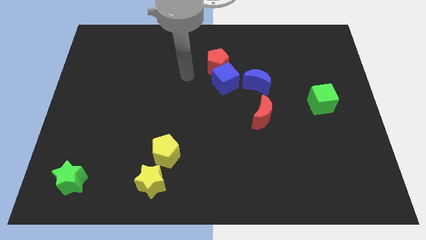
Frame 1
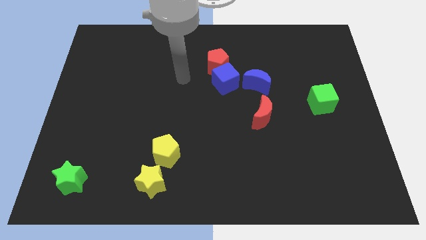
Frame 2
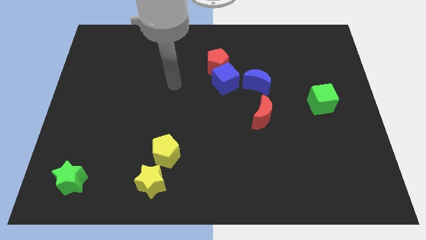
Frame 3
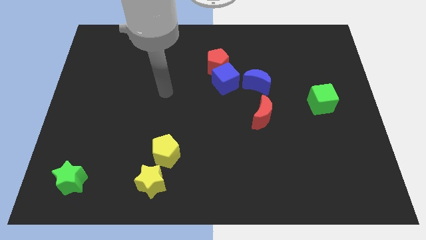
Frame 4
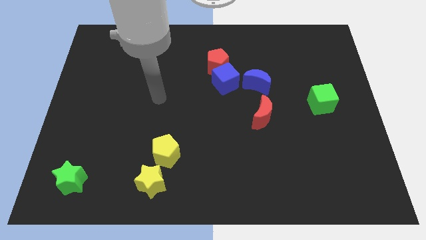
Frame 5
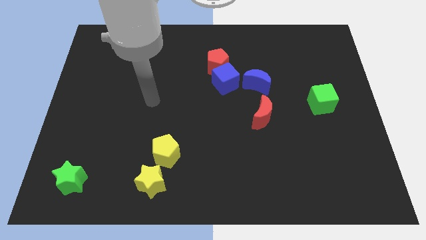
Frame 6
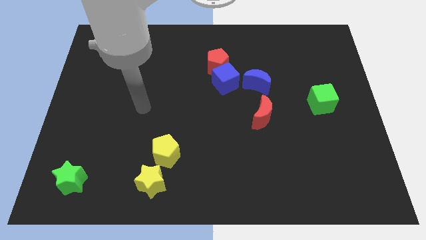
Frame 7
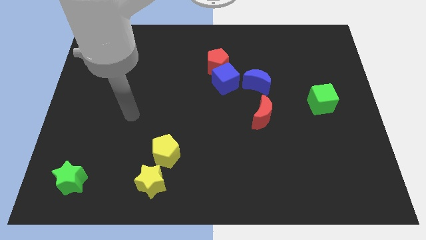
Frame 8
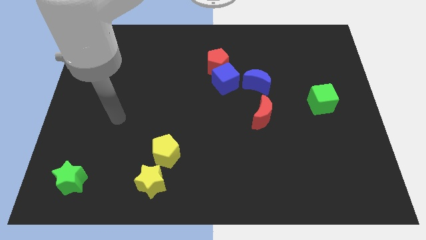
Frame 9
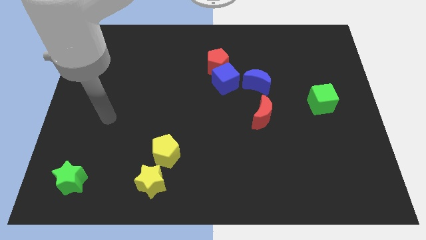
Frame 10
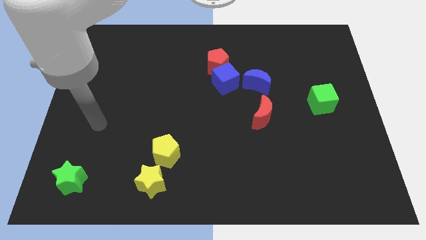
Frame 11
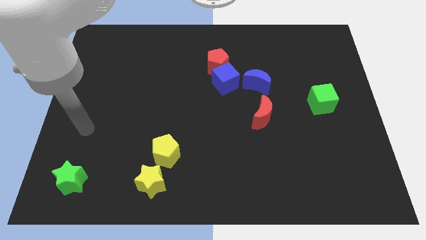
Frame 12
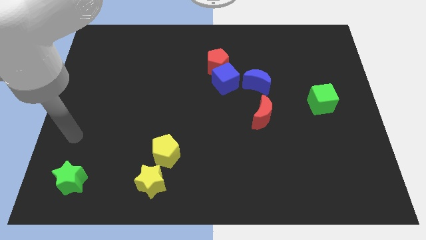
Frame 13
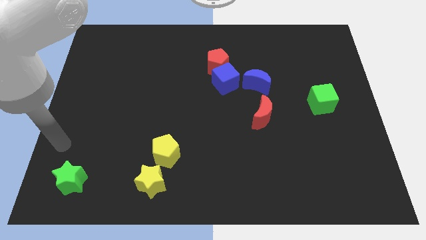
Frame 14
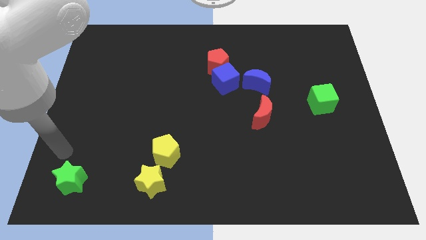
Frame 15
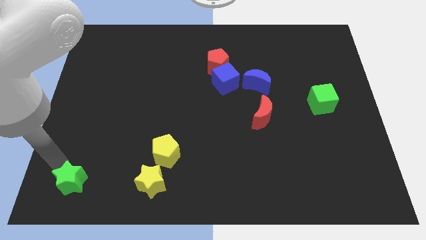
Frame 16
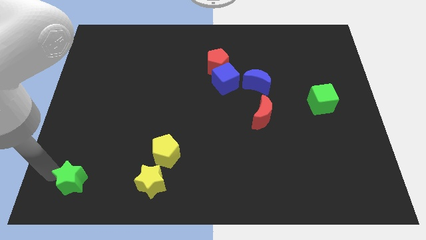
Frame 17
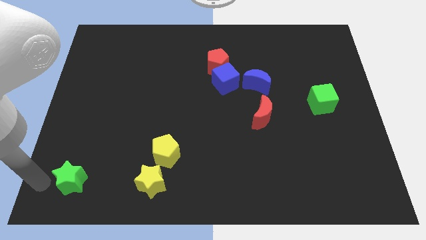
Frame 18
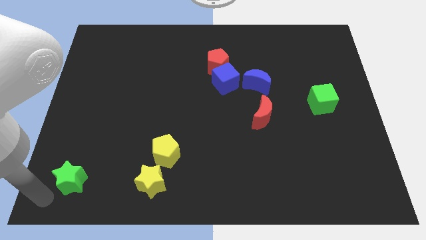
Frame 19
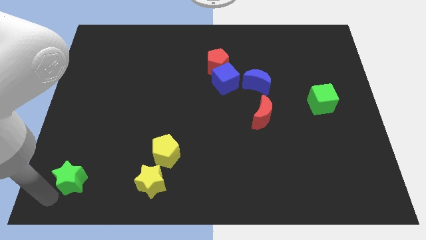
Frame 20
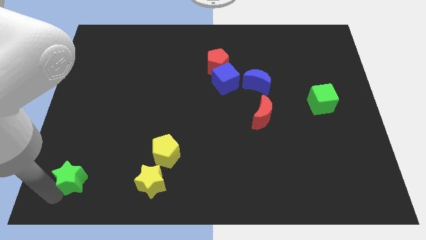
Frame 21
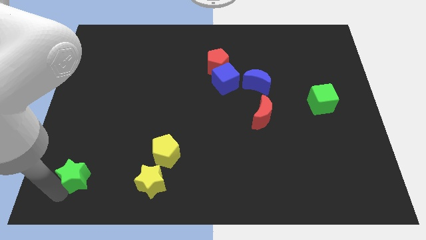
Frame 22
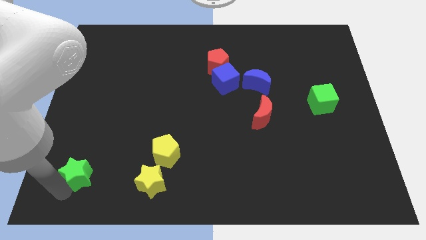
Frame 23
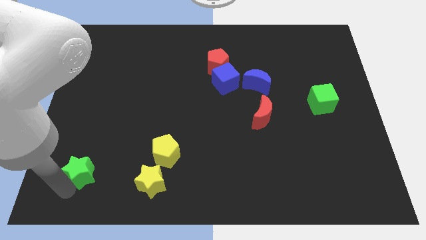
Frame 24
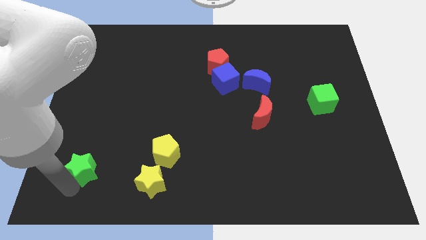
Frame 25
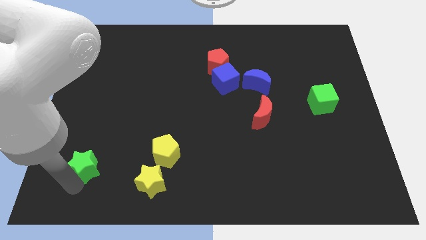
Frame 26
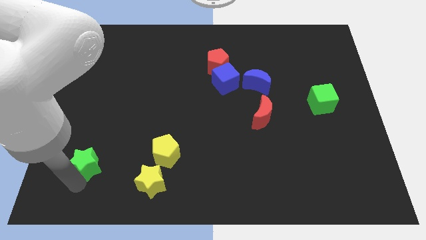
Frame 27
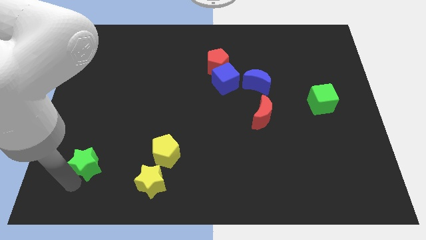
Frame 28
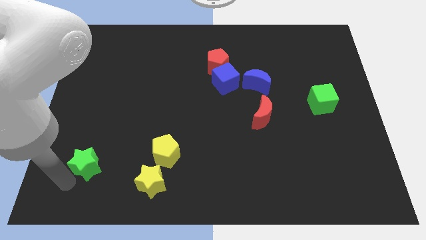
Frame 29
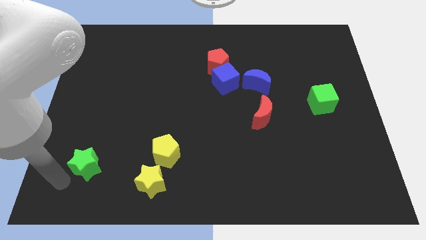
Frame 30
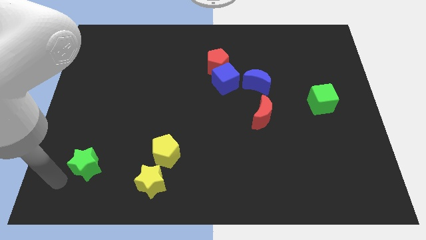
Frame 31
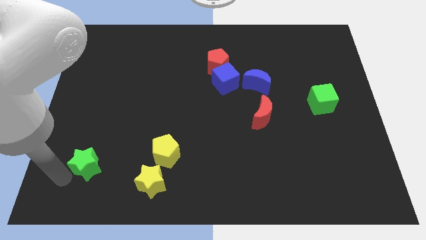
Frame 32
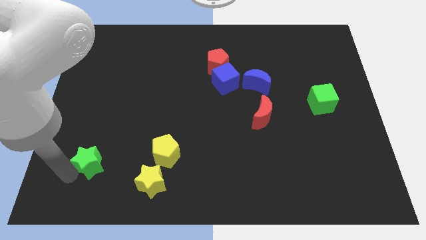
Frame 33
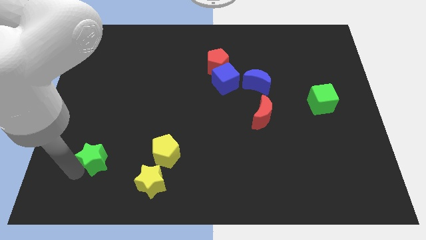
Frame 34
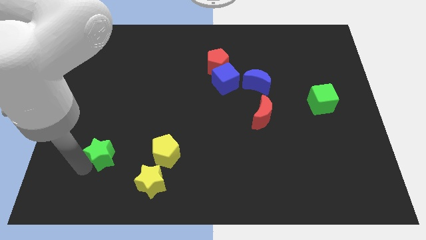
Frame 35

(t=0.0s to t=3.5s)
slightly push the green star up and then right

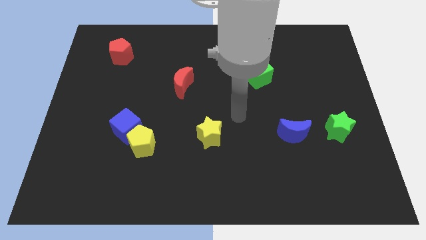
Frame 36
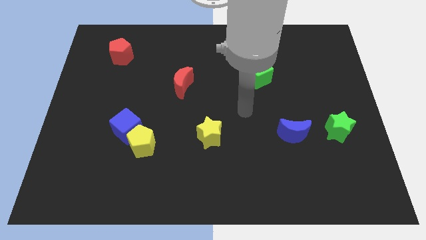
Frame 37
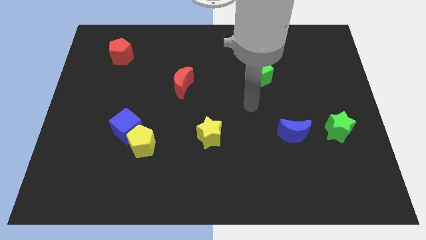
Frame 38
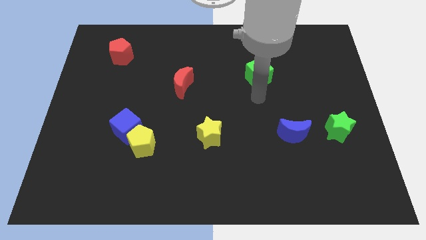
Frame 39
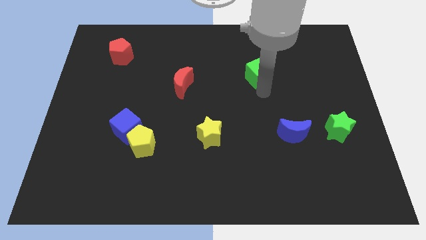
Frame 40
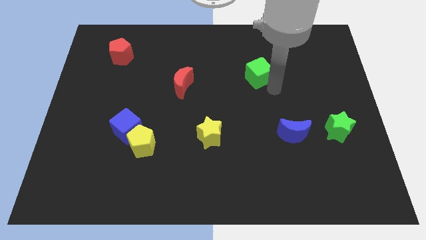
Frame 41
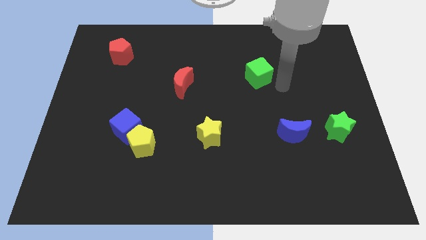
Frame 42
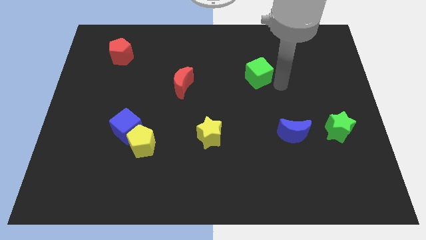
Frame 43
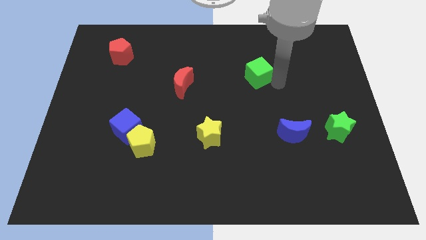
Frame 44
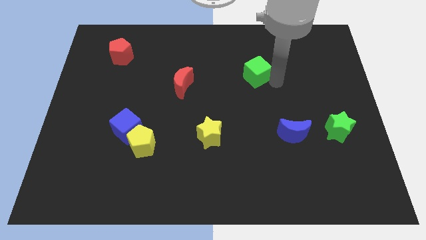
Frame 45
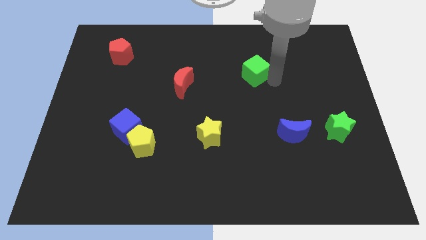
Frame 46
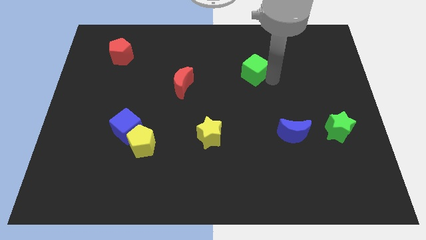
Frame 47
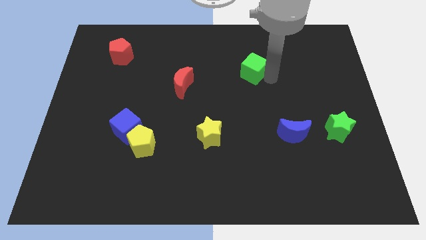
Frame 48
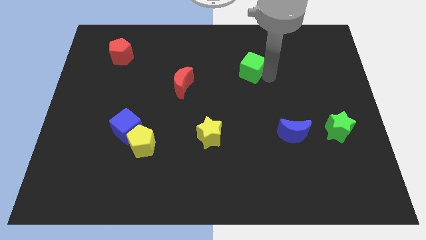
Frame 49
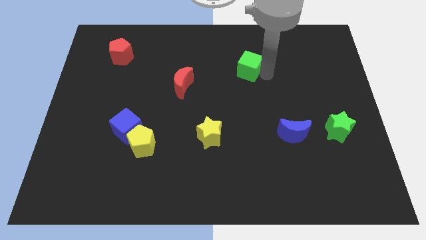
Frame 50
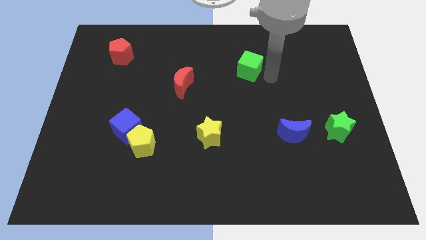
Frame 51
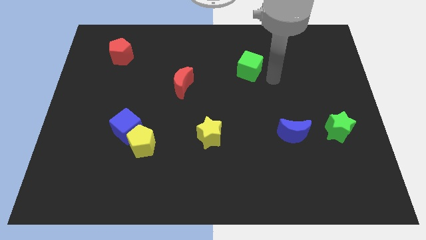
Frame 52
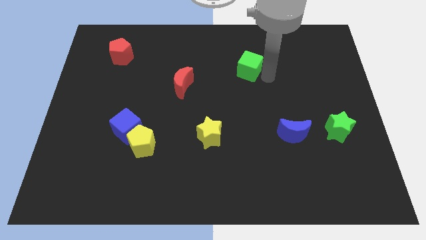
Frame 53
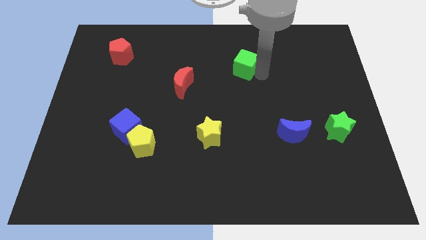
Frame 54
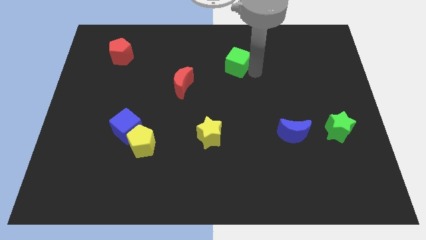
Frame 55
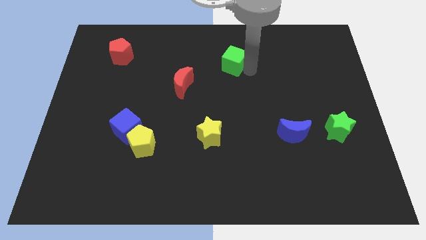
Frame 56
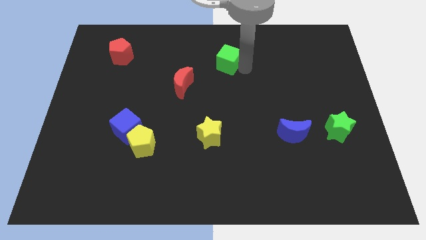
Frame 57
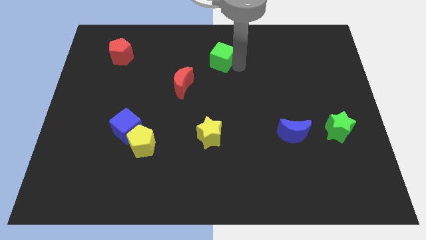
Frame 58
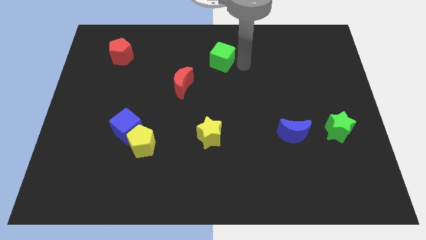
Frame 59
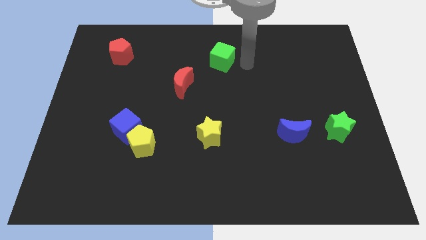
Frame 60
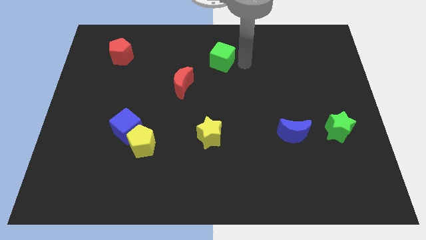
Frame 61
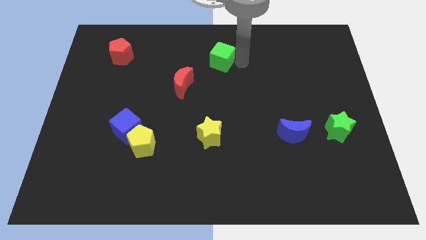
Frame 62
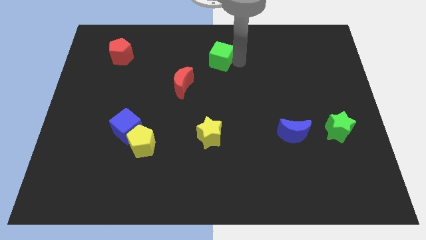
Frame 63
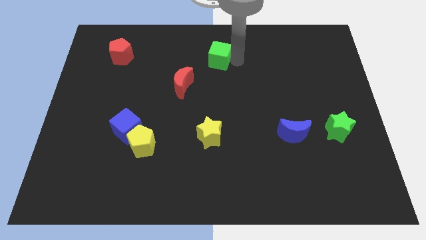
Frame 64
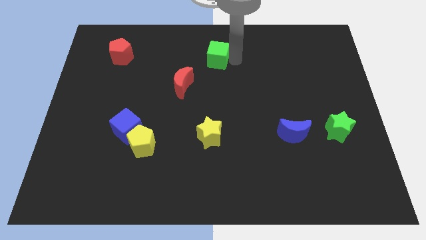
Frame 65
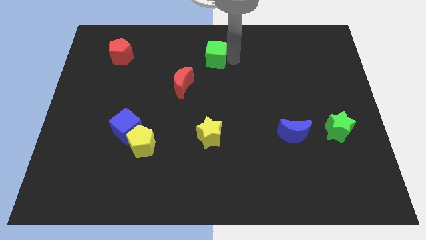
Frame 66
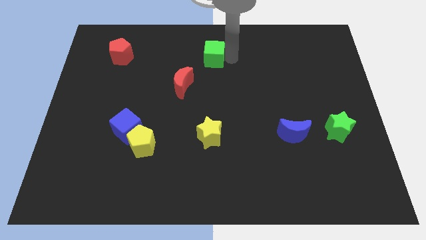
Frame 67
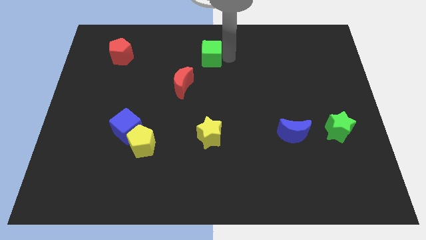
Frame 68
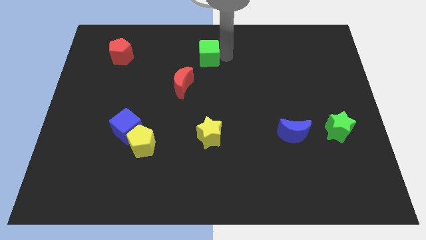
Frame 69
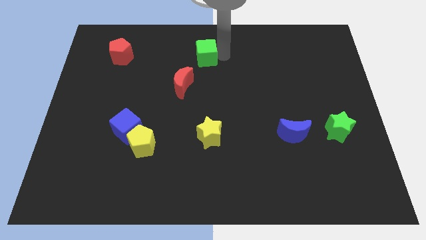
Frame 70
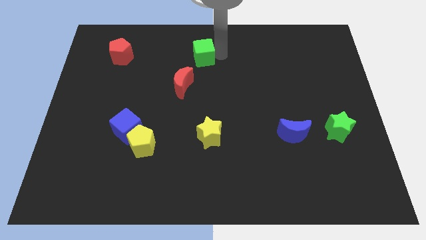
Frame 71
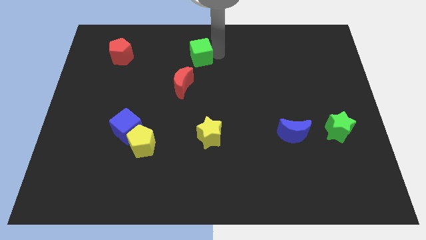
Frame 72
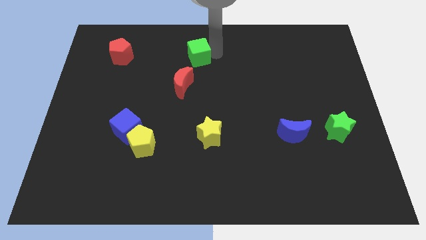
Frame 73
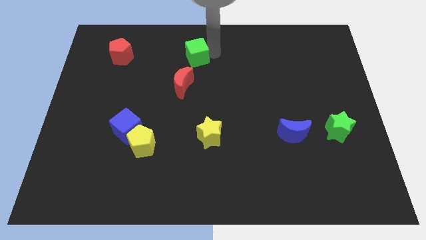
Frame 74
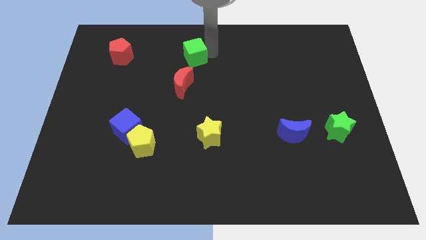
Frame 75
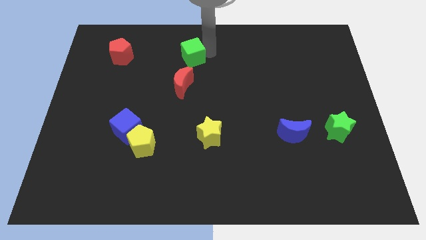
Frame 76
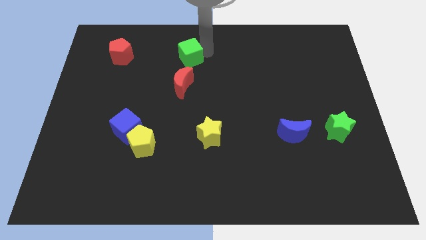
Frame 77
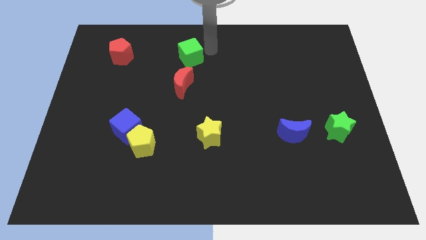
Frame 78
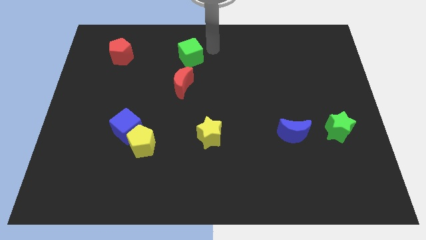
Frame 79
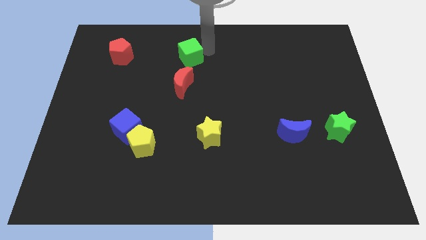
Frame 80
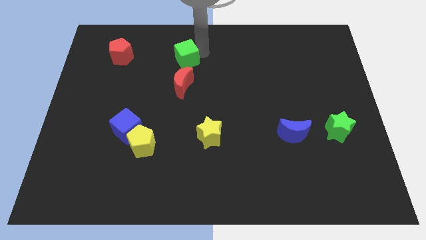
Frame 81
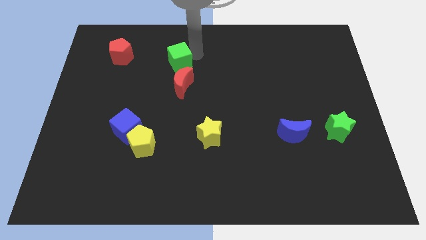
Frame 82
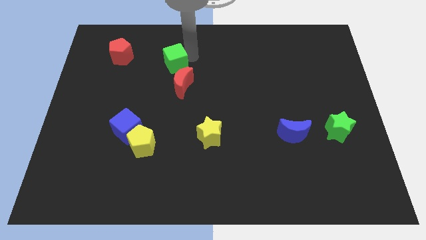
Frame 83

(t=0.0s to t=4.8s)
push the green cube to the left
